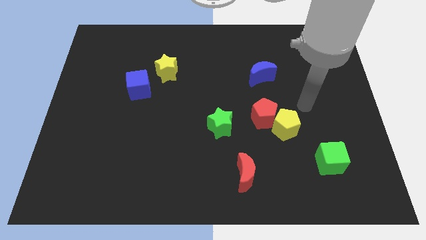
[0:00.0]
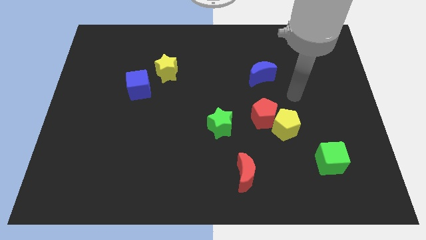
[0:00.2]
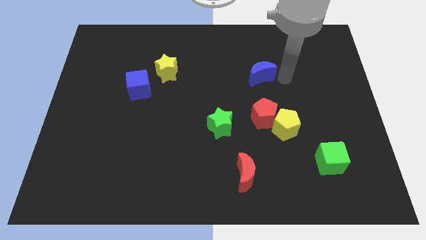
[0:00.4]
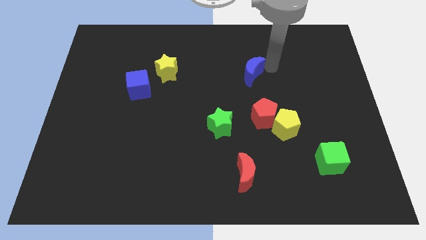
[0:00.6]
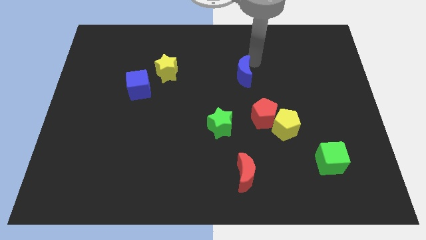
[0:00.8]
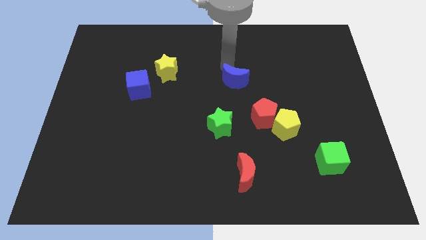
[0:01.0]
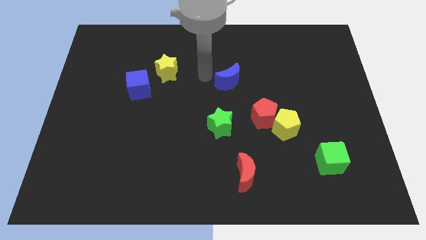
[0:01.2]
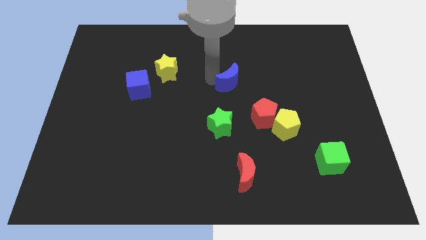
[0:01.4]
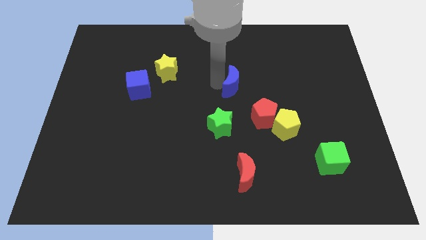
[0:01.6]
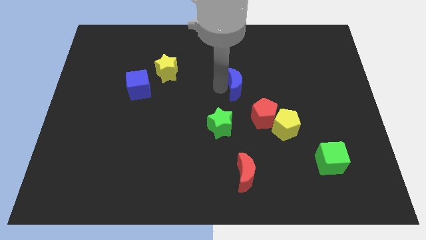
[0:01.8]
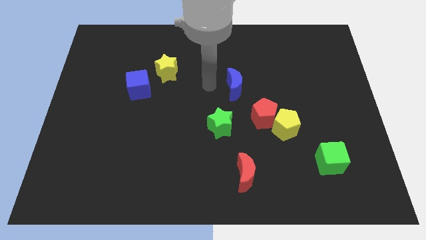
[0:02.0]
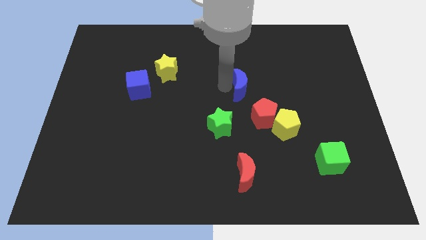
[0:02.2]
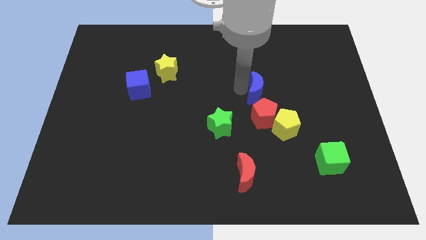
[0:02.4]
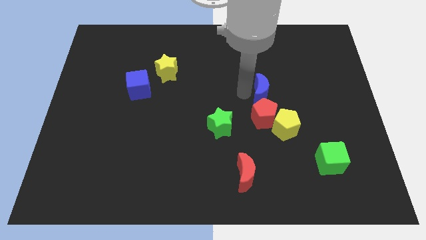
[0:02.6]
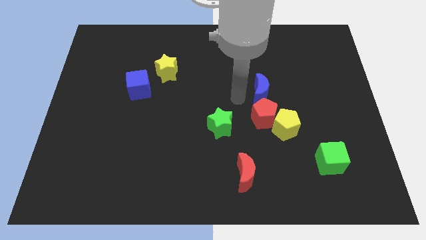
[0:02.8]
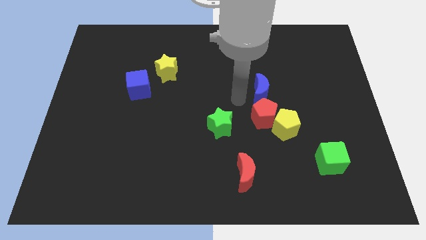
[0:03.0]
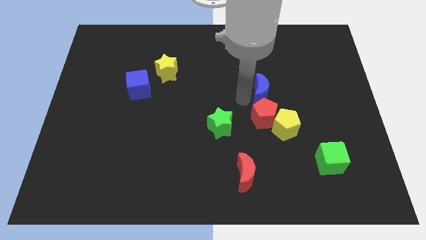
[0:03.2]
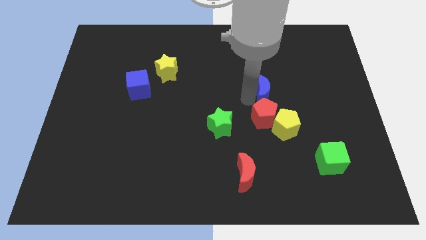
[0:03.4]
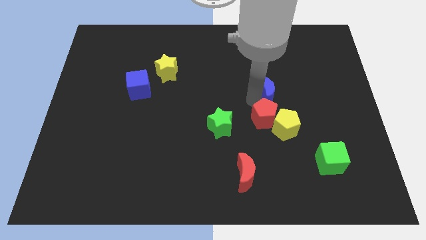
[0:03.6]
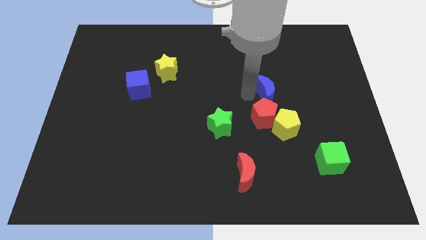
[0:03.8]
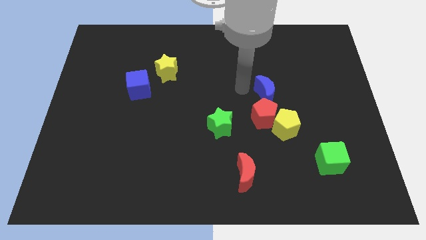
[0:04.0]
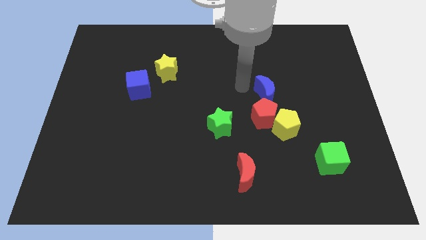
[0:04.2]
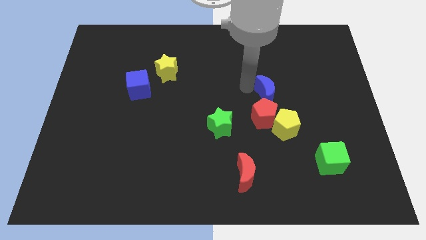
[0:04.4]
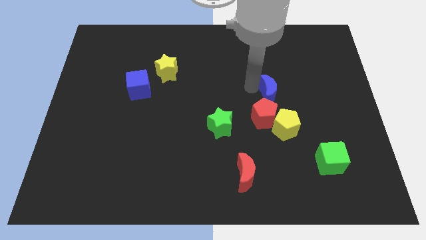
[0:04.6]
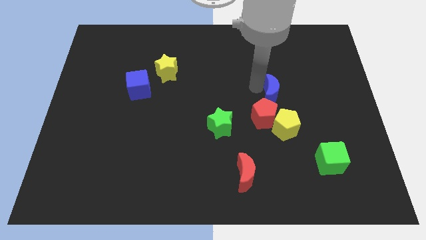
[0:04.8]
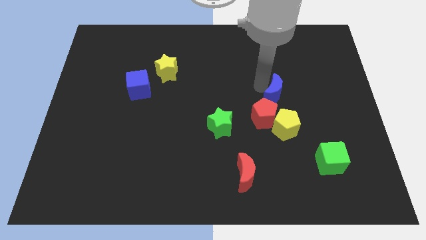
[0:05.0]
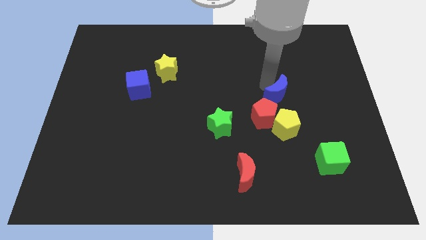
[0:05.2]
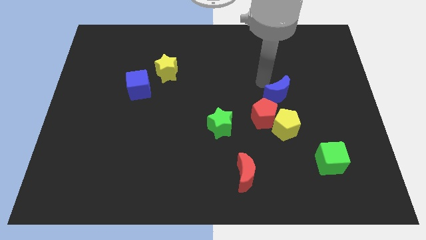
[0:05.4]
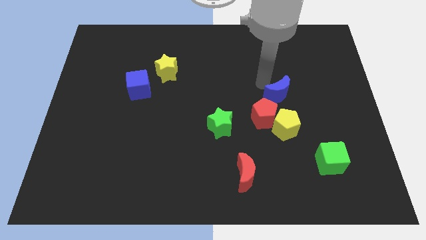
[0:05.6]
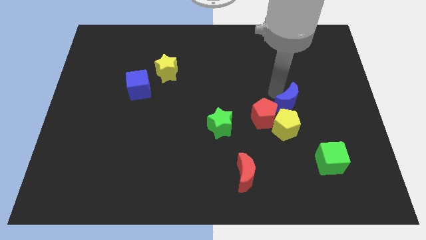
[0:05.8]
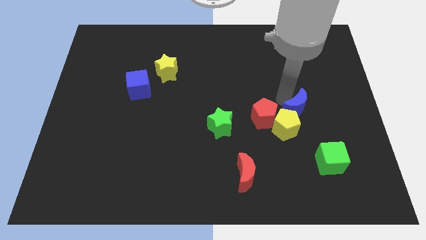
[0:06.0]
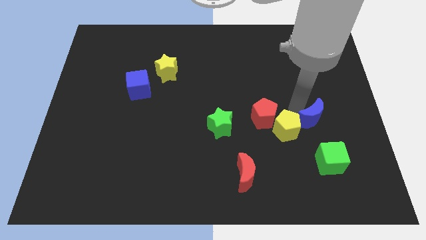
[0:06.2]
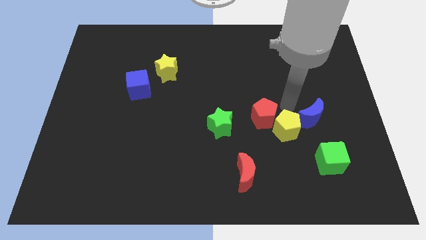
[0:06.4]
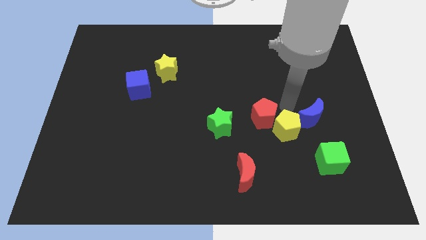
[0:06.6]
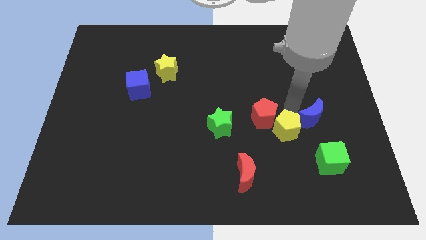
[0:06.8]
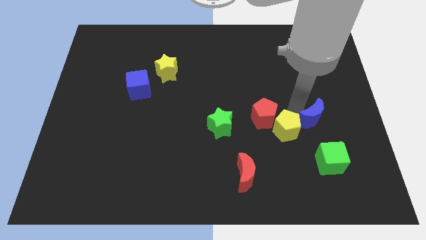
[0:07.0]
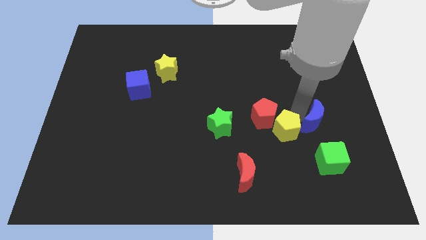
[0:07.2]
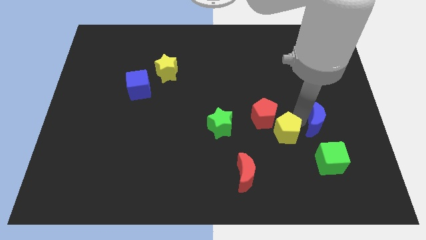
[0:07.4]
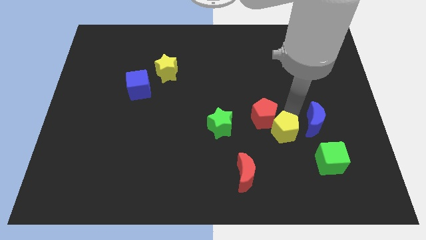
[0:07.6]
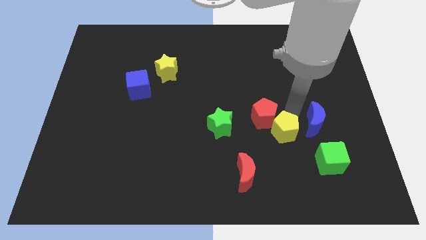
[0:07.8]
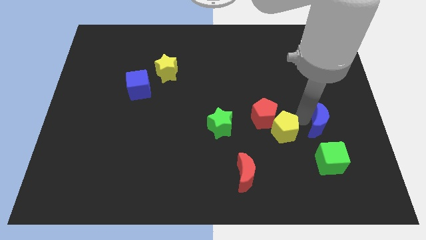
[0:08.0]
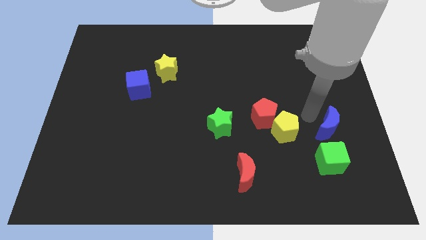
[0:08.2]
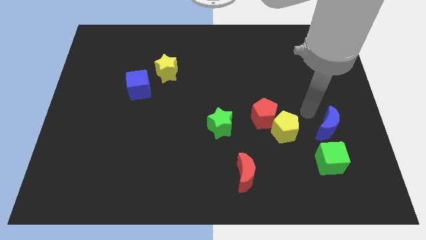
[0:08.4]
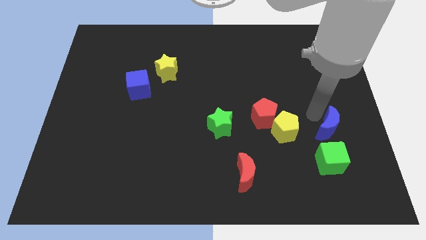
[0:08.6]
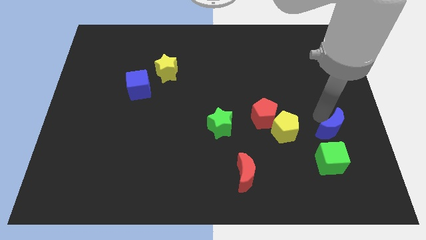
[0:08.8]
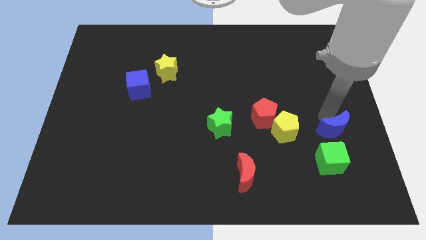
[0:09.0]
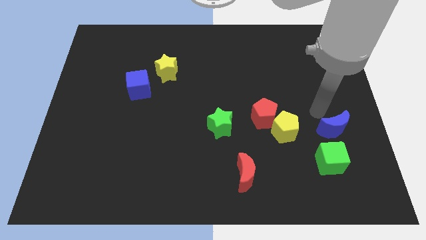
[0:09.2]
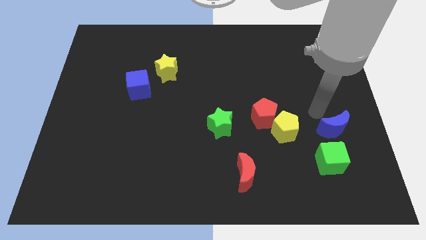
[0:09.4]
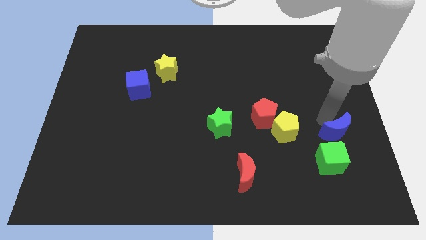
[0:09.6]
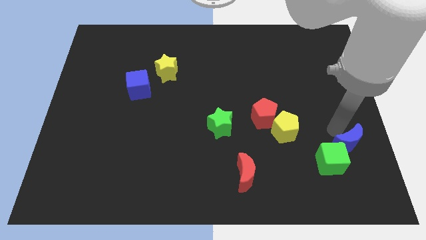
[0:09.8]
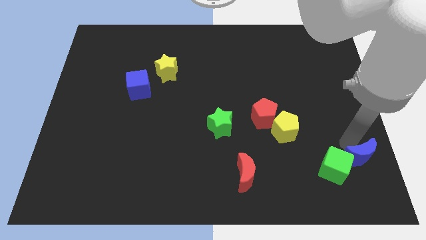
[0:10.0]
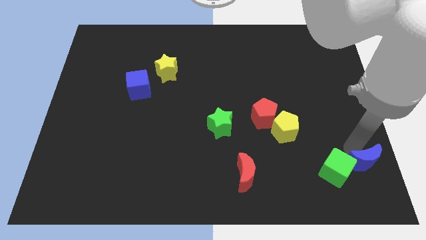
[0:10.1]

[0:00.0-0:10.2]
slide the blue moon to the bottom right corner

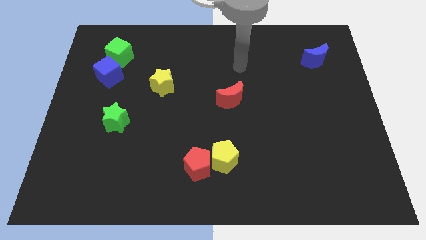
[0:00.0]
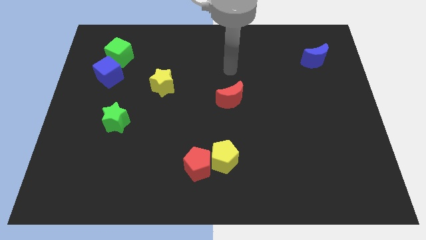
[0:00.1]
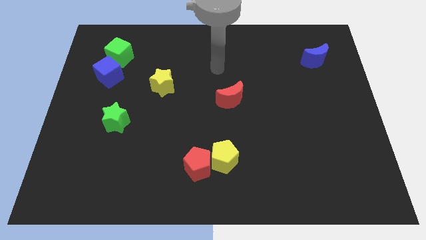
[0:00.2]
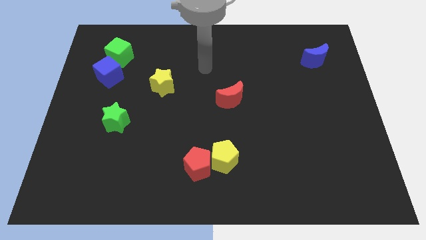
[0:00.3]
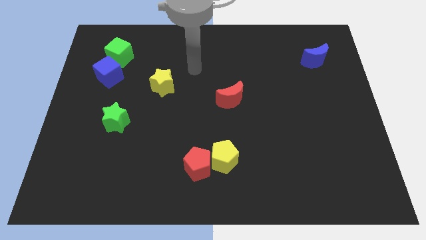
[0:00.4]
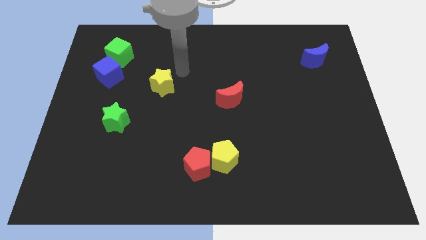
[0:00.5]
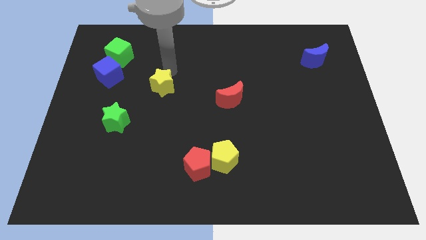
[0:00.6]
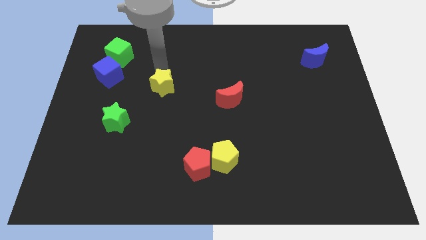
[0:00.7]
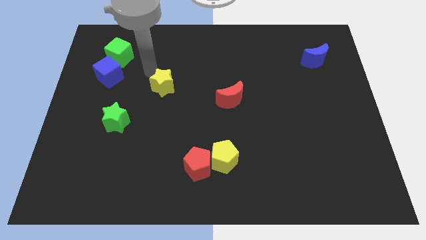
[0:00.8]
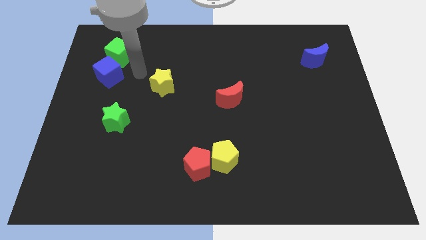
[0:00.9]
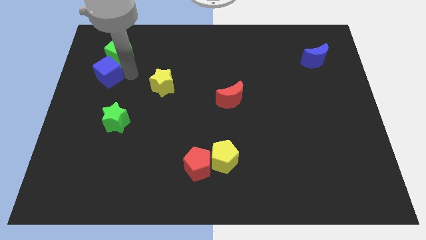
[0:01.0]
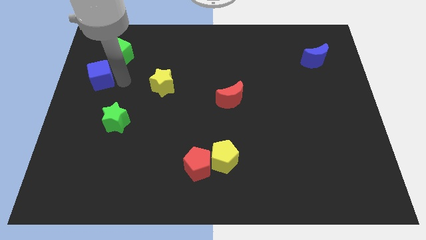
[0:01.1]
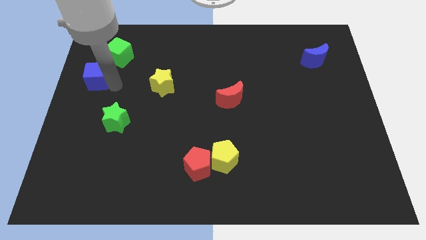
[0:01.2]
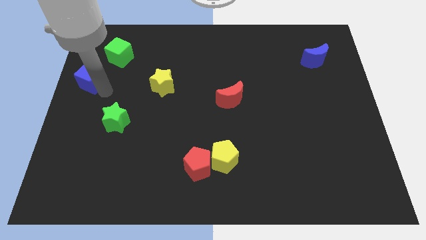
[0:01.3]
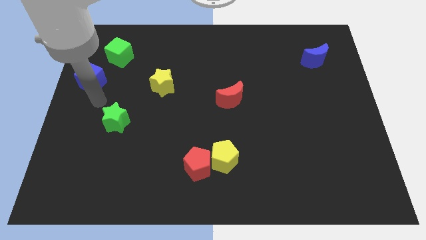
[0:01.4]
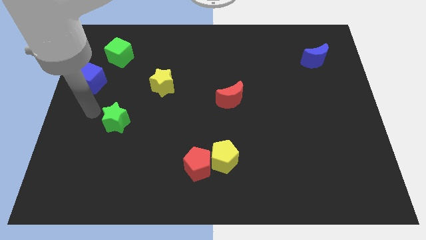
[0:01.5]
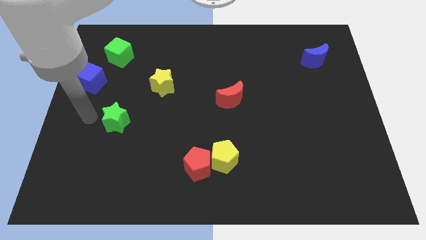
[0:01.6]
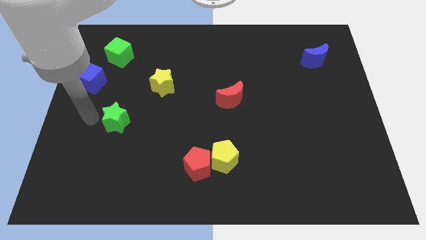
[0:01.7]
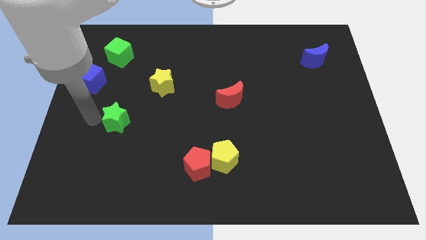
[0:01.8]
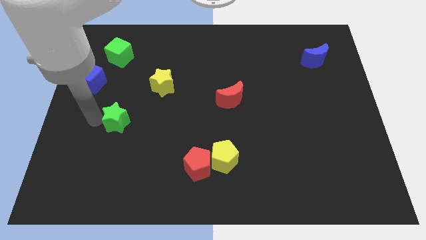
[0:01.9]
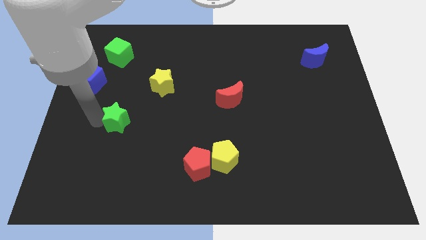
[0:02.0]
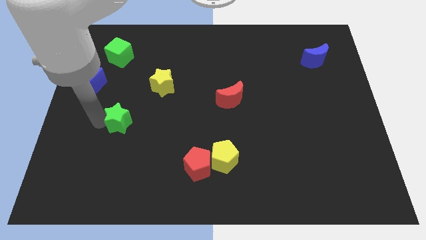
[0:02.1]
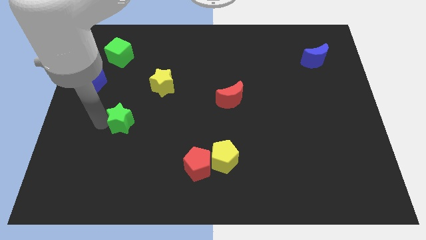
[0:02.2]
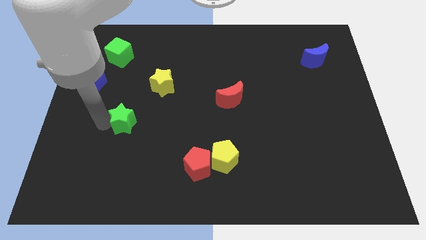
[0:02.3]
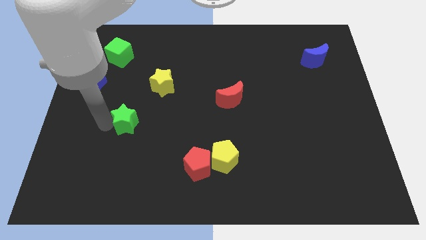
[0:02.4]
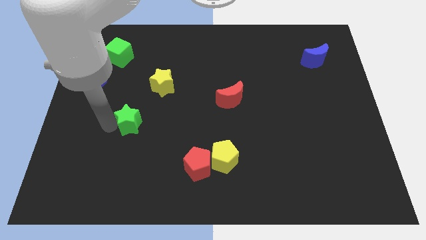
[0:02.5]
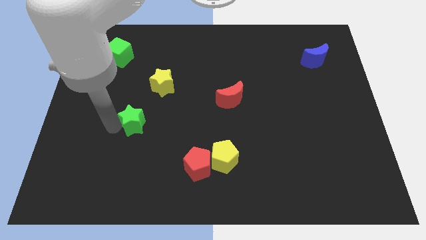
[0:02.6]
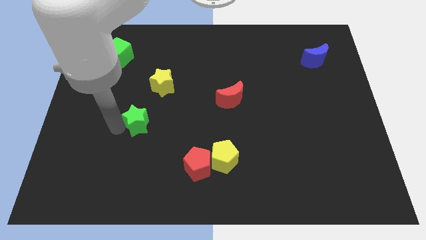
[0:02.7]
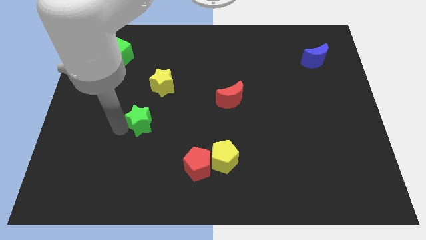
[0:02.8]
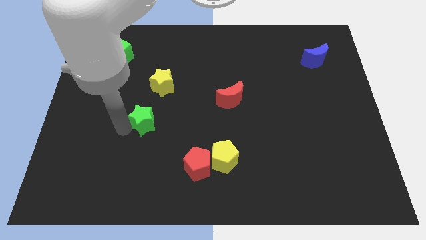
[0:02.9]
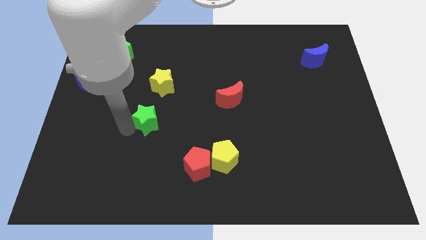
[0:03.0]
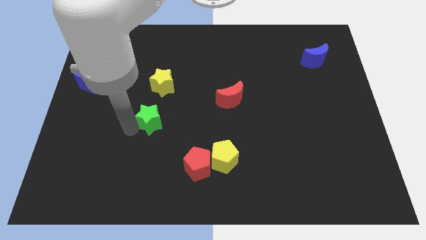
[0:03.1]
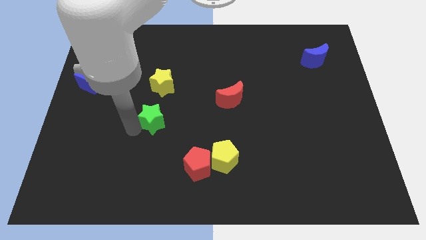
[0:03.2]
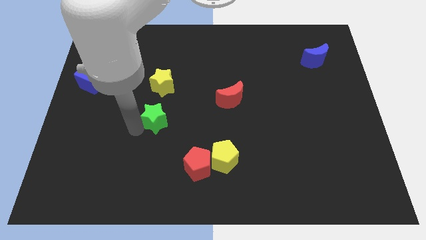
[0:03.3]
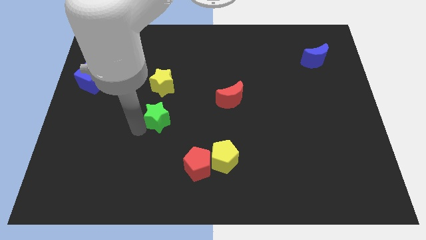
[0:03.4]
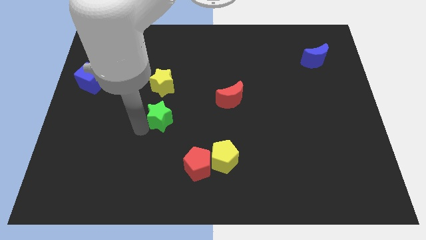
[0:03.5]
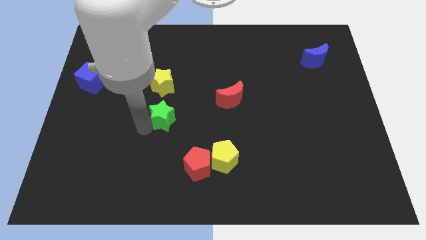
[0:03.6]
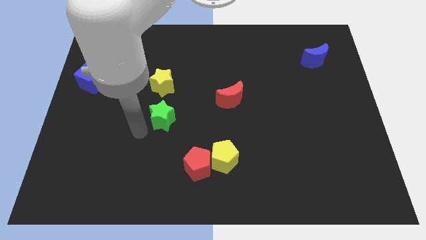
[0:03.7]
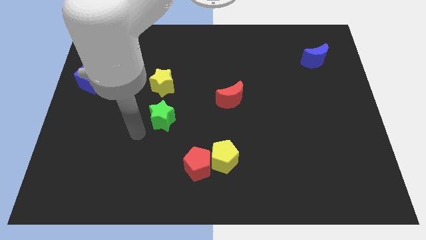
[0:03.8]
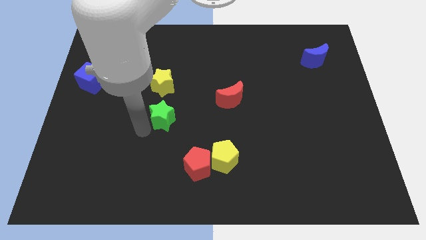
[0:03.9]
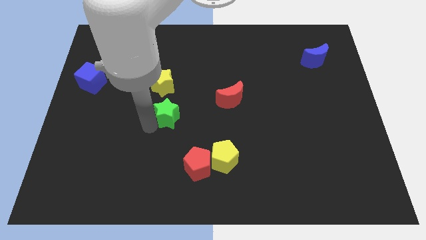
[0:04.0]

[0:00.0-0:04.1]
move the green star to the middle of the board
